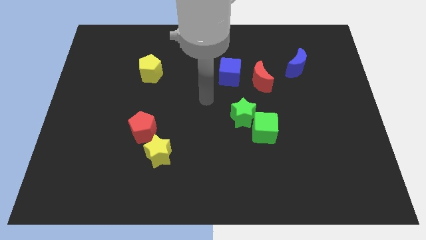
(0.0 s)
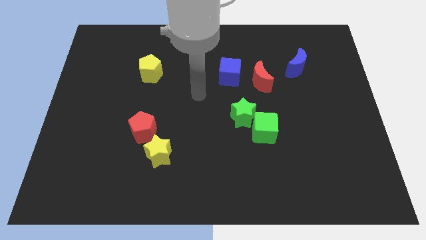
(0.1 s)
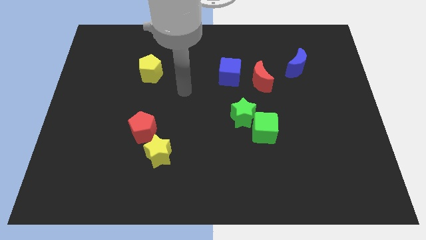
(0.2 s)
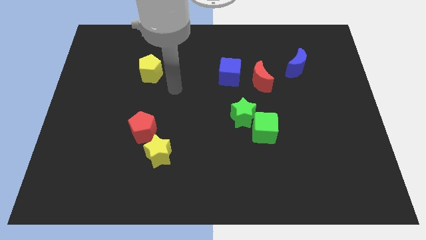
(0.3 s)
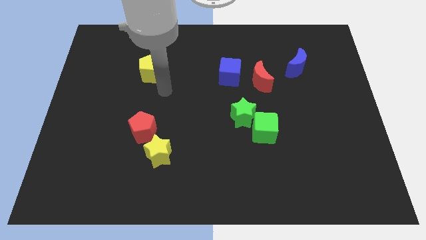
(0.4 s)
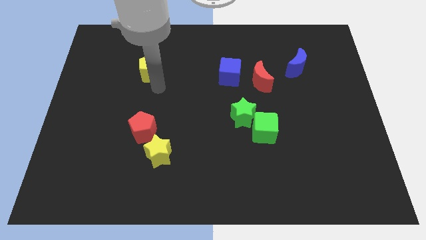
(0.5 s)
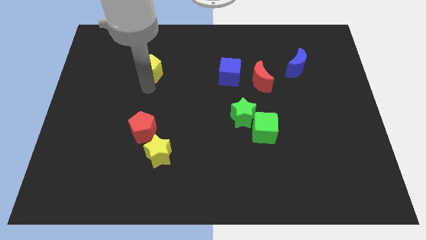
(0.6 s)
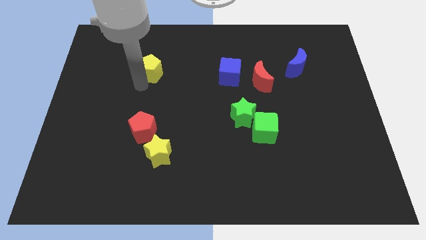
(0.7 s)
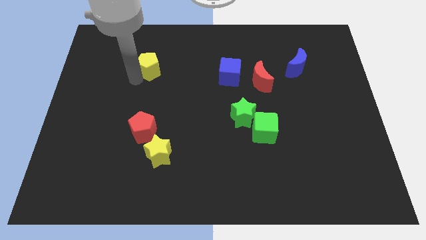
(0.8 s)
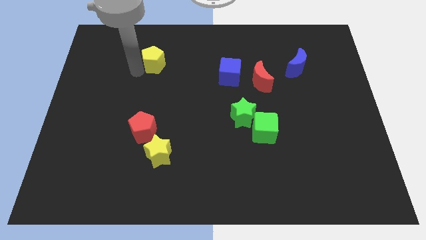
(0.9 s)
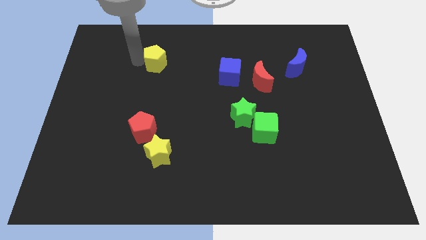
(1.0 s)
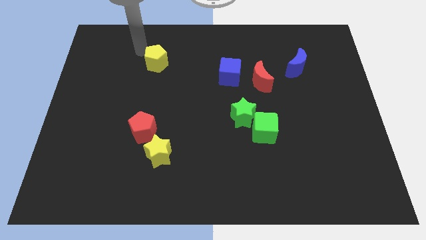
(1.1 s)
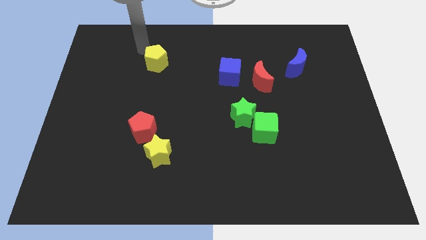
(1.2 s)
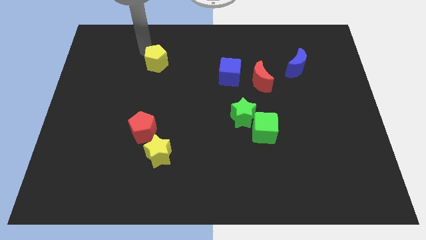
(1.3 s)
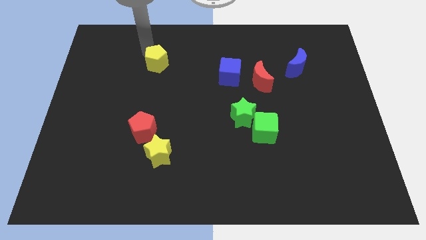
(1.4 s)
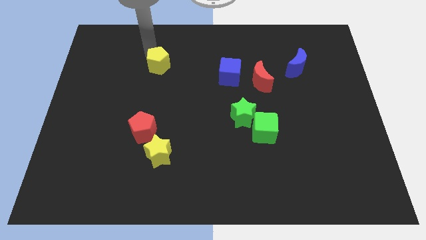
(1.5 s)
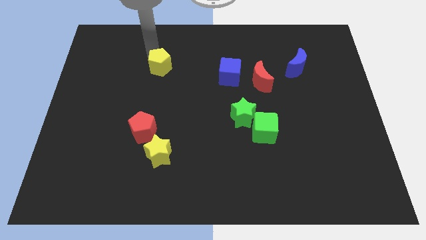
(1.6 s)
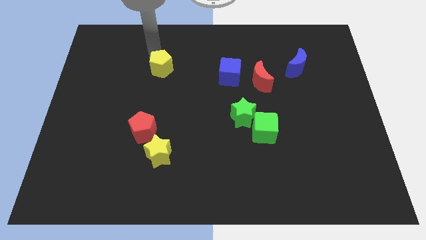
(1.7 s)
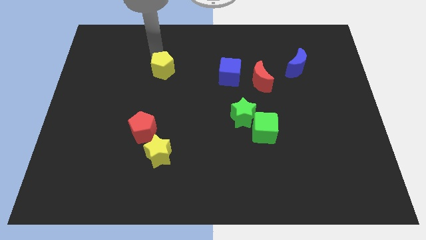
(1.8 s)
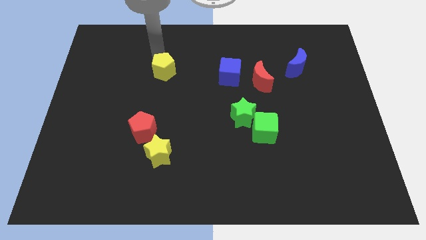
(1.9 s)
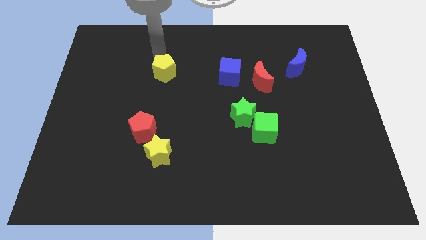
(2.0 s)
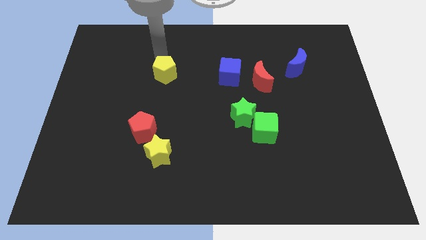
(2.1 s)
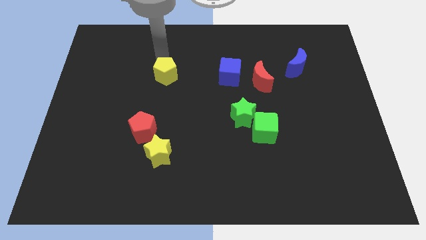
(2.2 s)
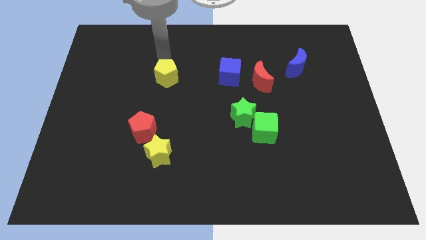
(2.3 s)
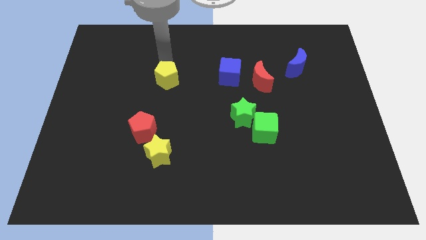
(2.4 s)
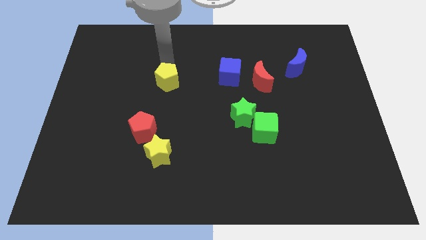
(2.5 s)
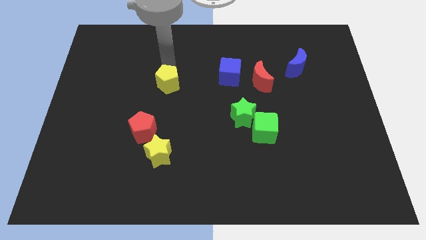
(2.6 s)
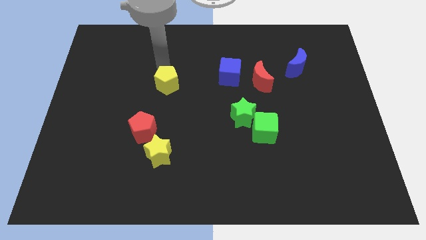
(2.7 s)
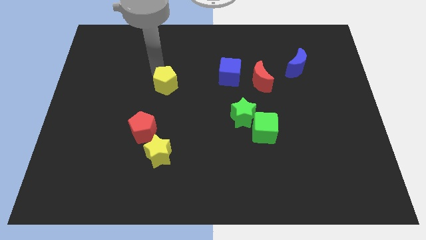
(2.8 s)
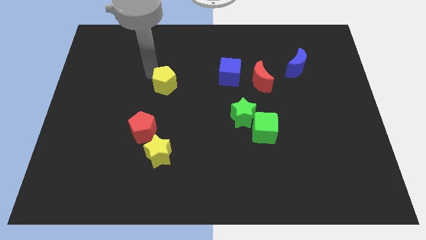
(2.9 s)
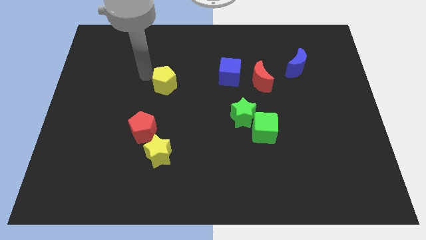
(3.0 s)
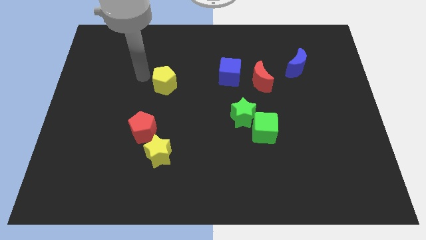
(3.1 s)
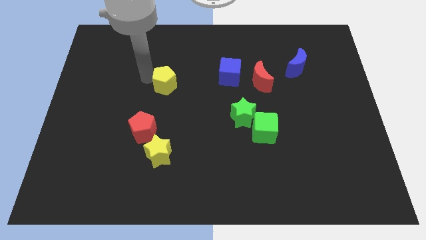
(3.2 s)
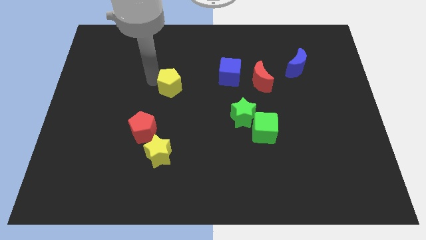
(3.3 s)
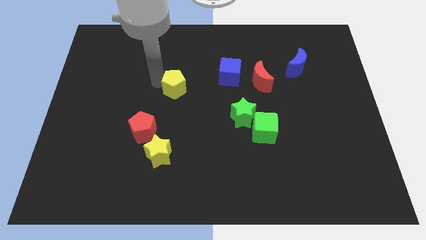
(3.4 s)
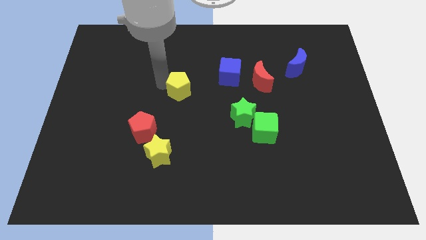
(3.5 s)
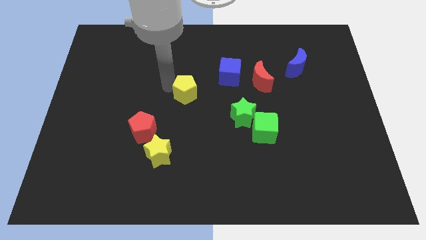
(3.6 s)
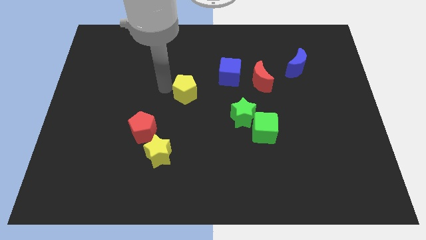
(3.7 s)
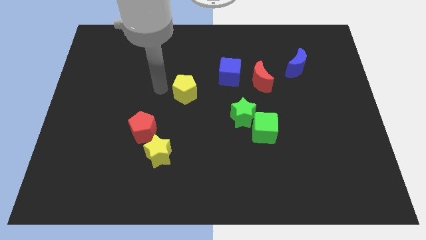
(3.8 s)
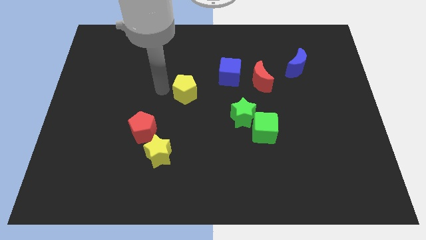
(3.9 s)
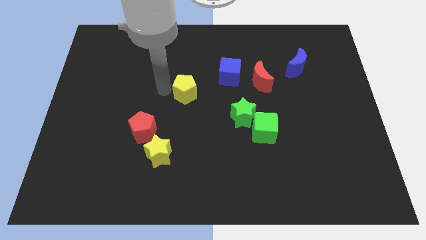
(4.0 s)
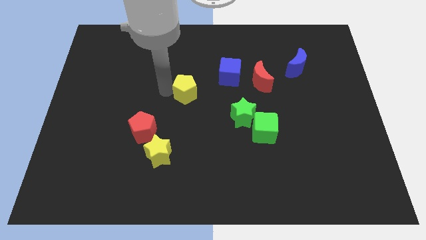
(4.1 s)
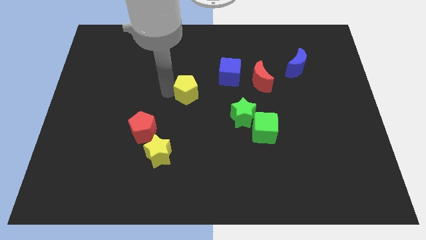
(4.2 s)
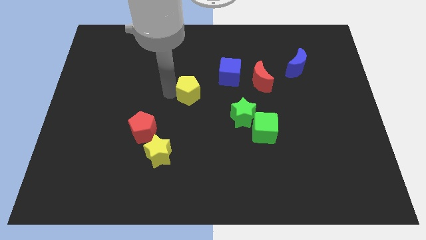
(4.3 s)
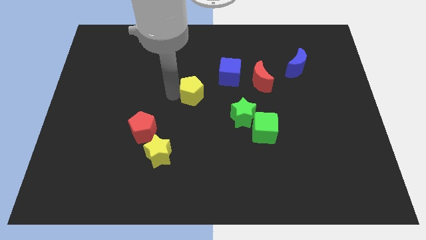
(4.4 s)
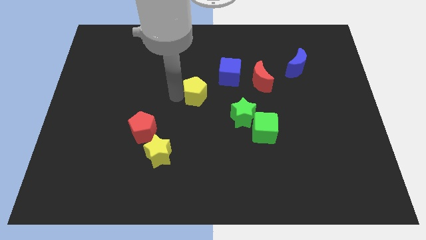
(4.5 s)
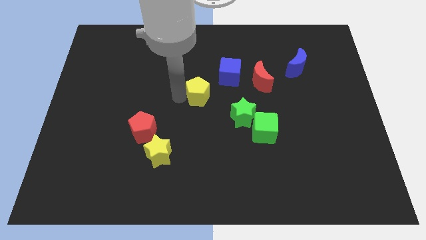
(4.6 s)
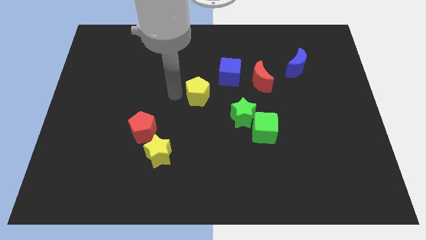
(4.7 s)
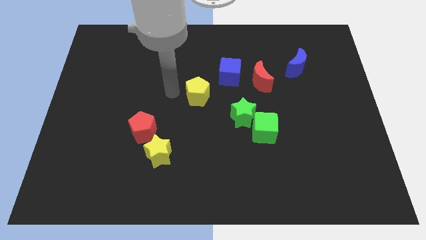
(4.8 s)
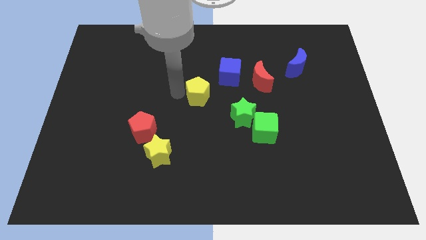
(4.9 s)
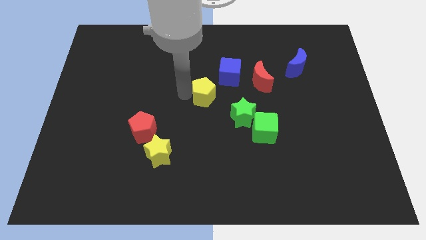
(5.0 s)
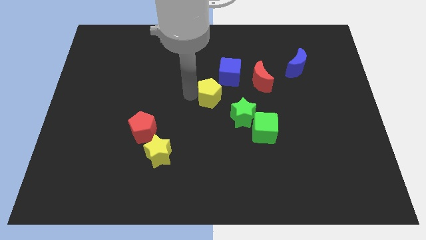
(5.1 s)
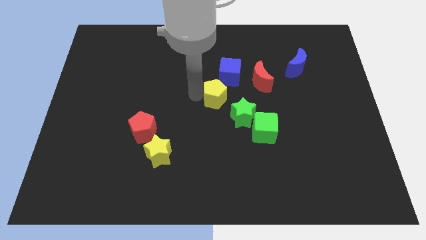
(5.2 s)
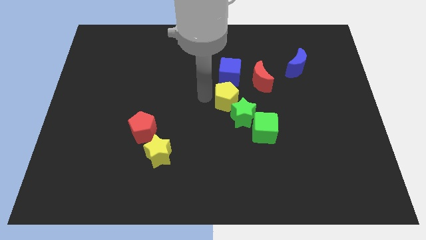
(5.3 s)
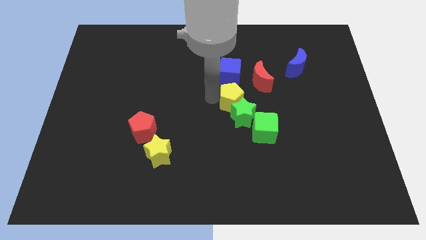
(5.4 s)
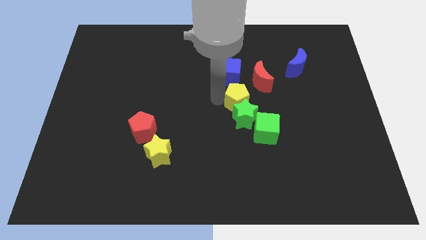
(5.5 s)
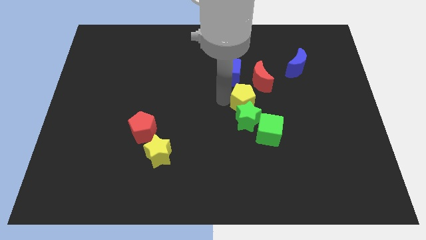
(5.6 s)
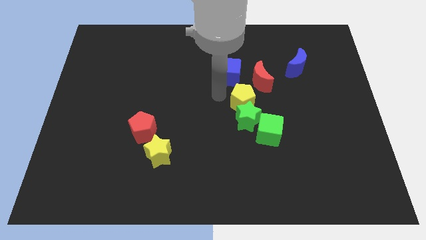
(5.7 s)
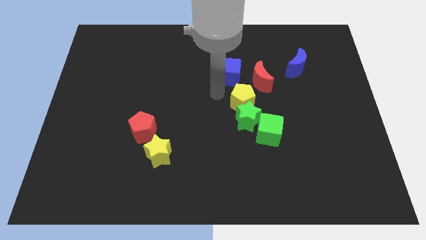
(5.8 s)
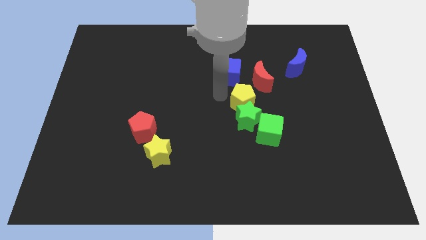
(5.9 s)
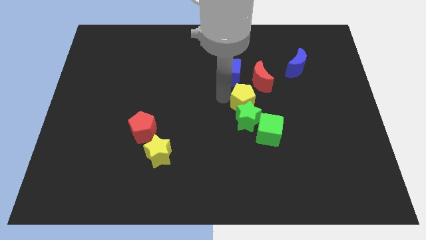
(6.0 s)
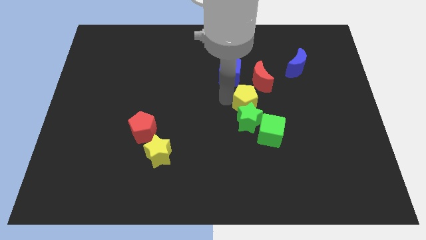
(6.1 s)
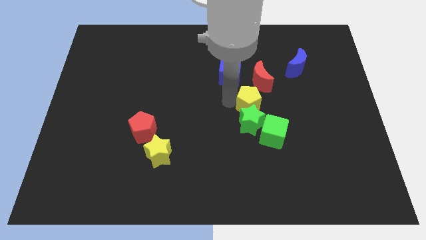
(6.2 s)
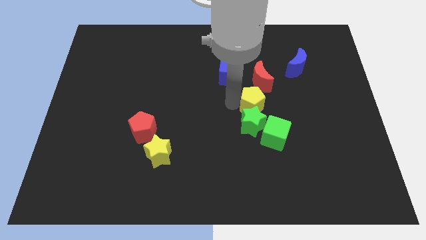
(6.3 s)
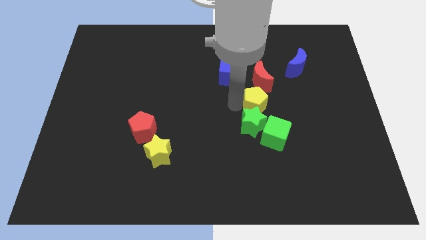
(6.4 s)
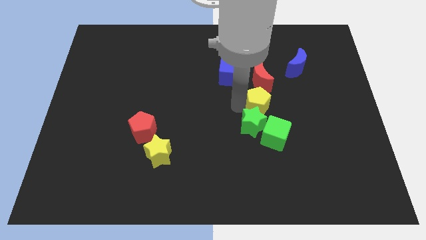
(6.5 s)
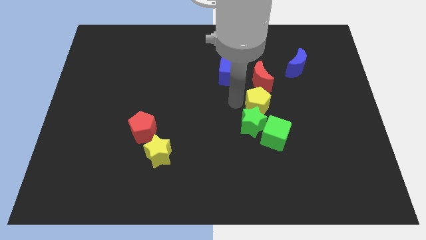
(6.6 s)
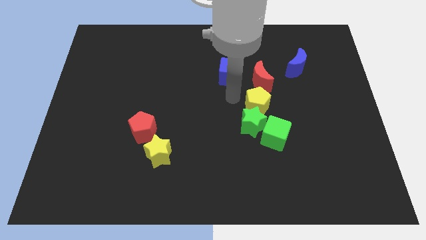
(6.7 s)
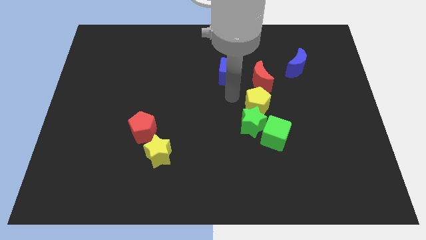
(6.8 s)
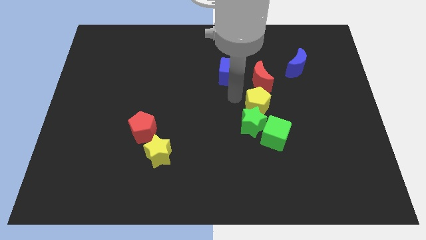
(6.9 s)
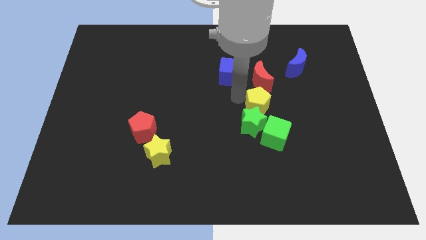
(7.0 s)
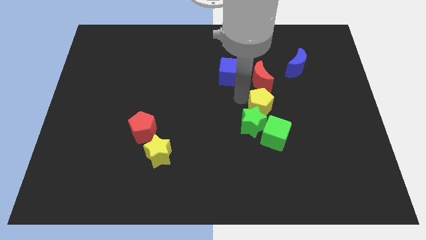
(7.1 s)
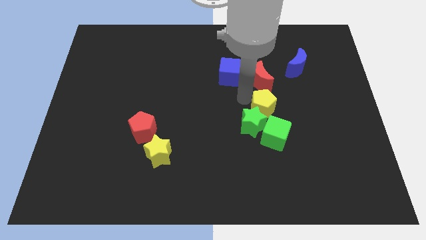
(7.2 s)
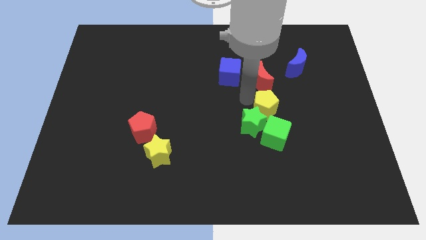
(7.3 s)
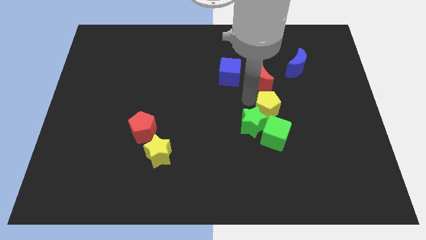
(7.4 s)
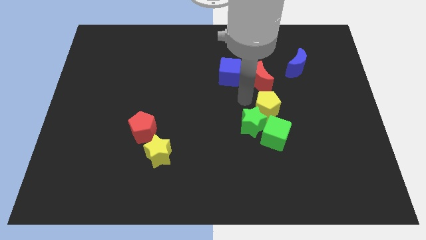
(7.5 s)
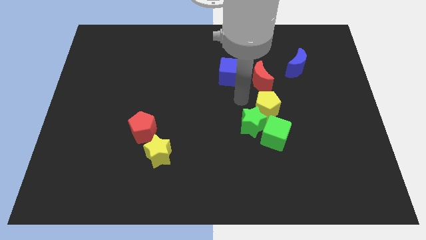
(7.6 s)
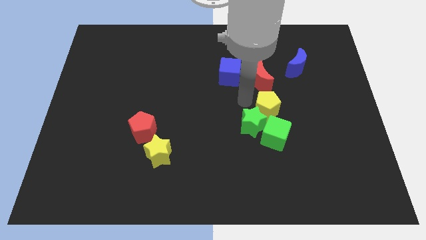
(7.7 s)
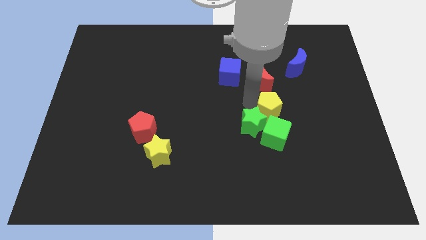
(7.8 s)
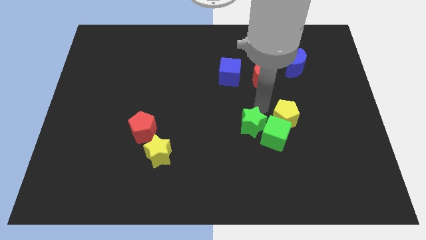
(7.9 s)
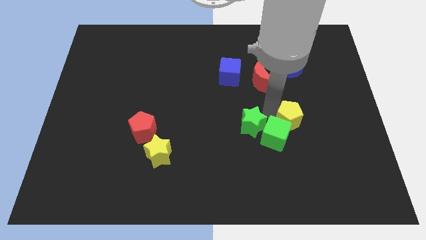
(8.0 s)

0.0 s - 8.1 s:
slide the yellow pentagon to the right side of the green cube
